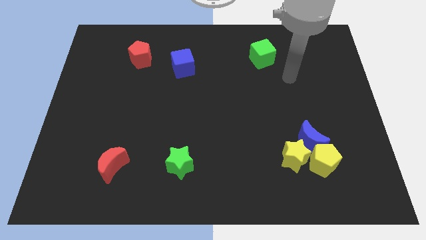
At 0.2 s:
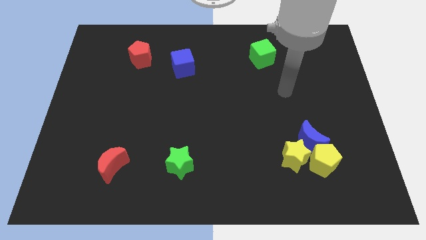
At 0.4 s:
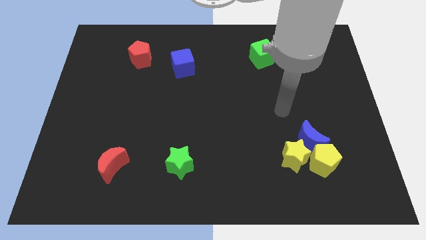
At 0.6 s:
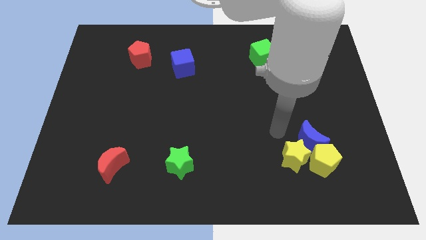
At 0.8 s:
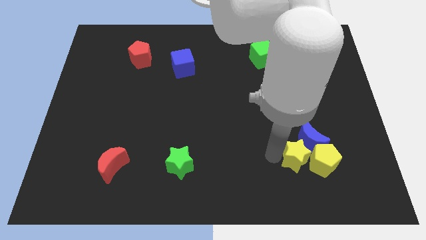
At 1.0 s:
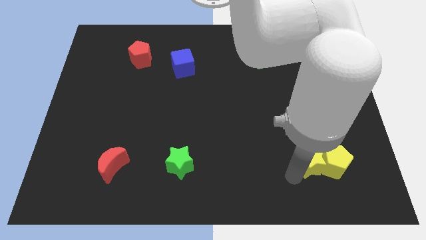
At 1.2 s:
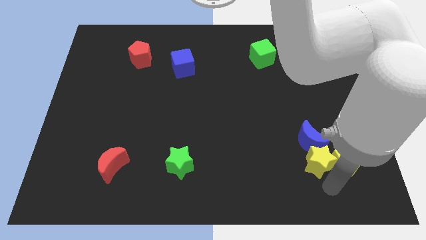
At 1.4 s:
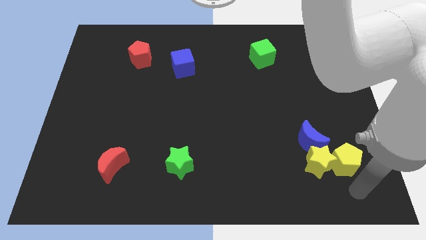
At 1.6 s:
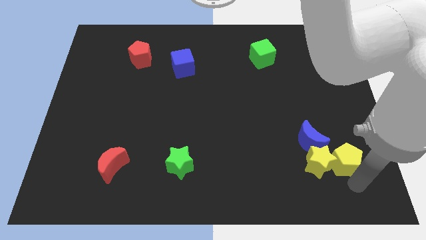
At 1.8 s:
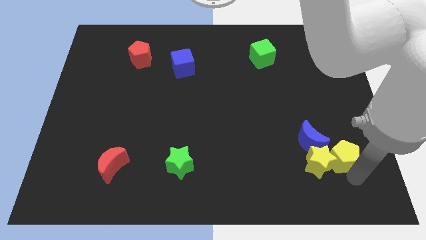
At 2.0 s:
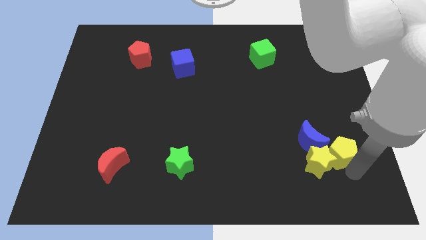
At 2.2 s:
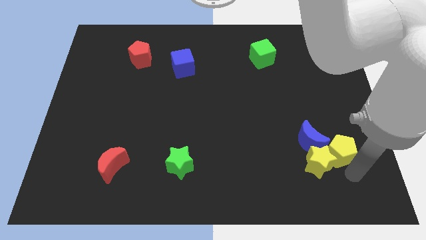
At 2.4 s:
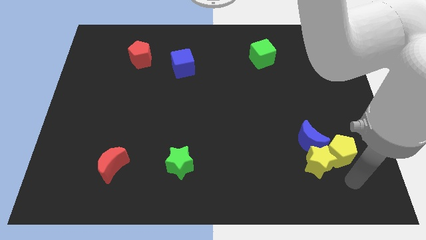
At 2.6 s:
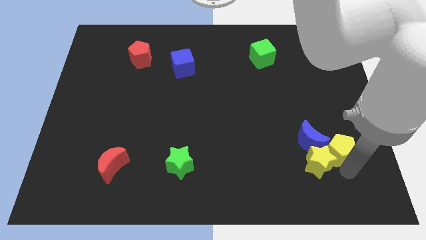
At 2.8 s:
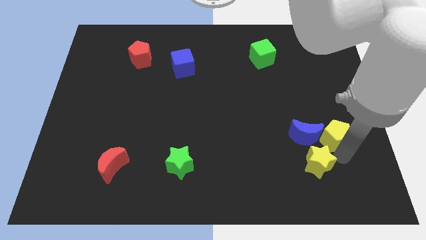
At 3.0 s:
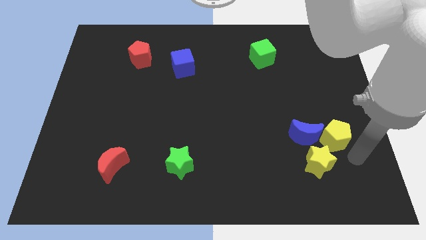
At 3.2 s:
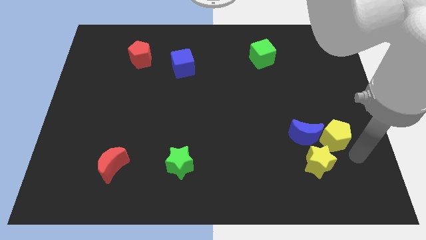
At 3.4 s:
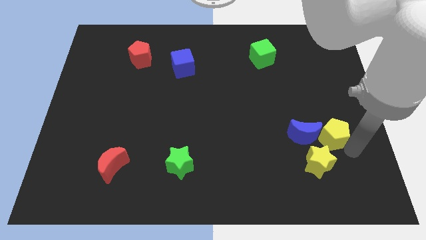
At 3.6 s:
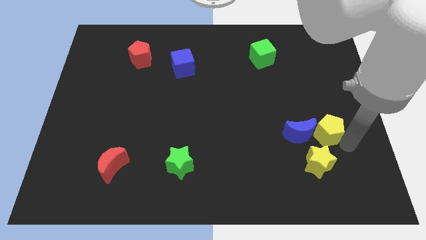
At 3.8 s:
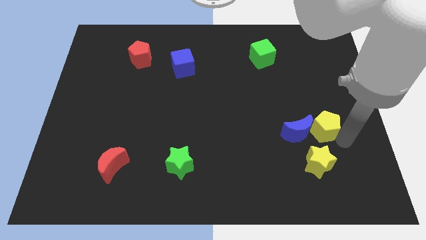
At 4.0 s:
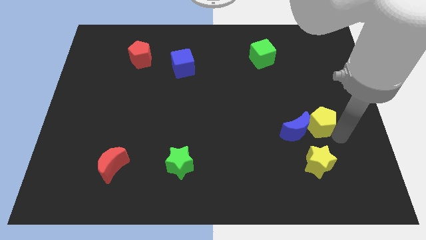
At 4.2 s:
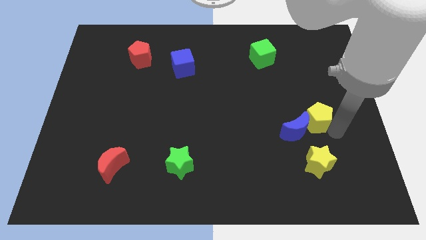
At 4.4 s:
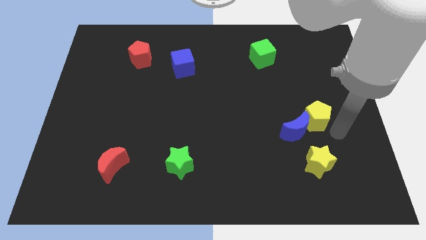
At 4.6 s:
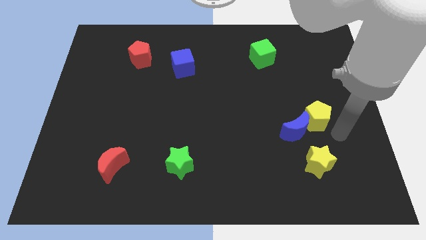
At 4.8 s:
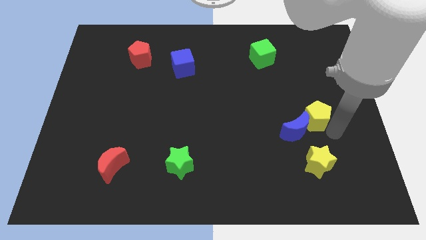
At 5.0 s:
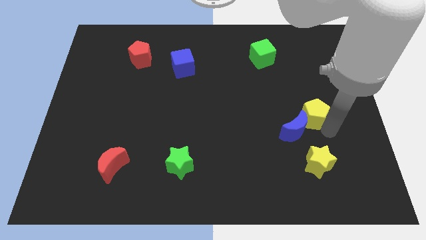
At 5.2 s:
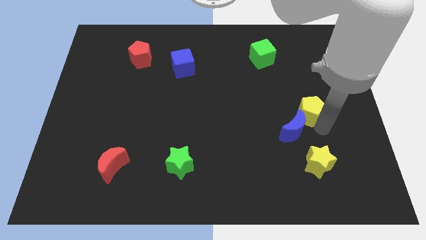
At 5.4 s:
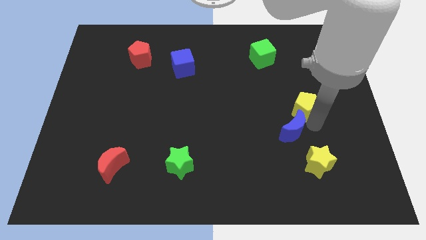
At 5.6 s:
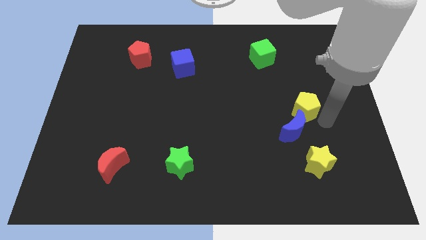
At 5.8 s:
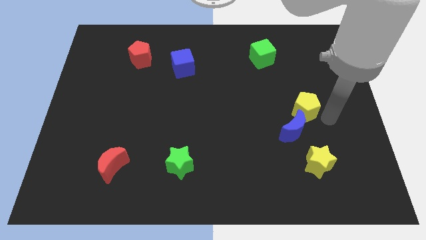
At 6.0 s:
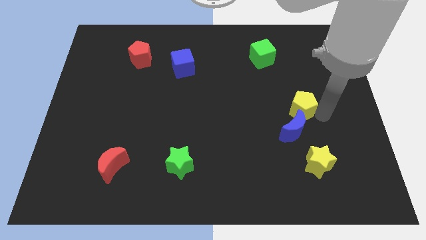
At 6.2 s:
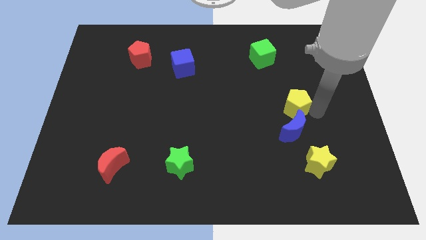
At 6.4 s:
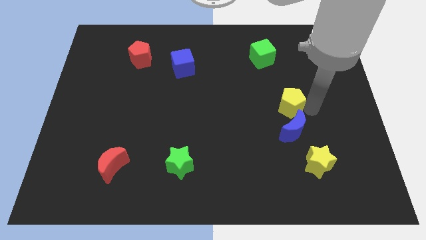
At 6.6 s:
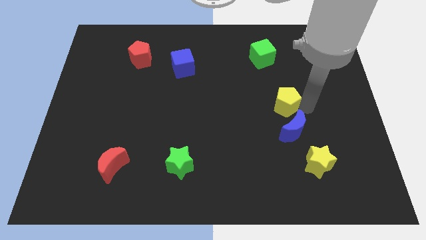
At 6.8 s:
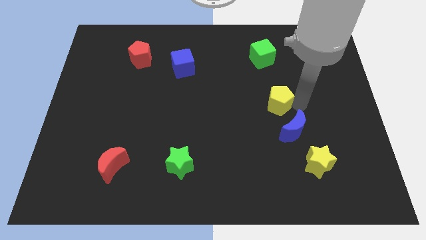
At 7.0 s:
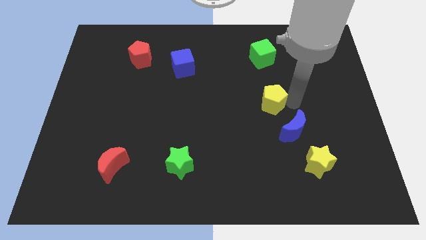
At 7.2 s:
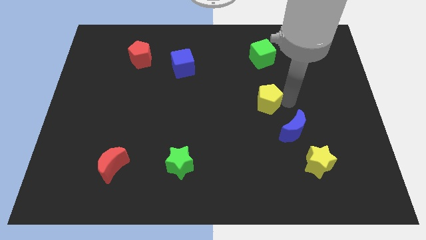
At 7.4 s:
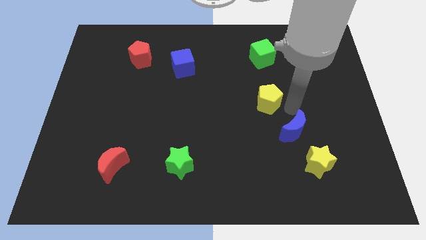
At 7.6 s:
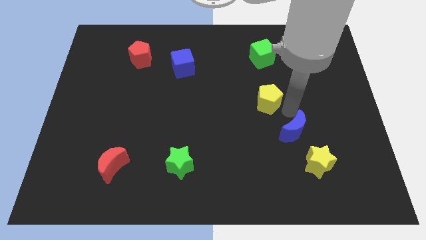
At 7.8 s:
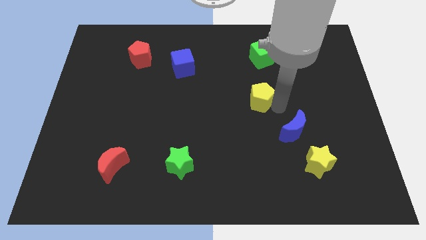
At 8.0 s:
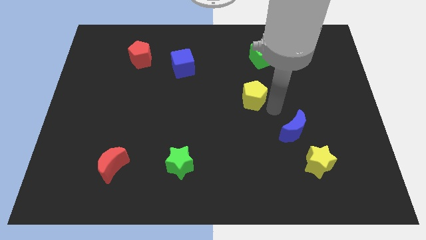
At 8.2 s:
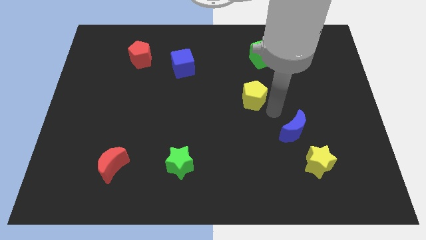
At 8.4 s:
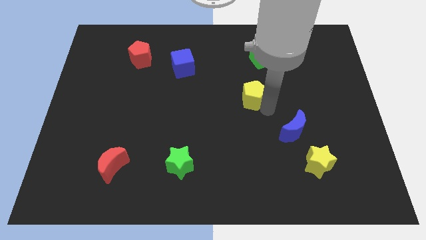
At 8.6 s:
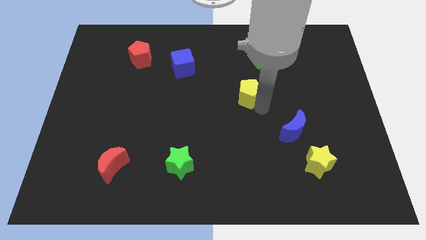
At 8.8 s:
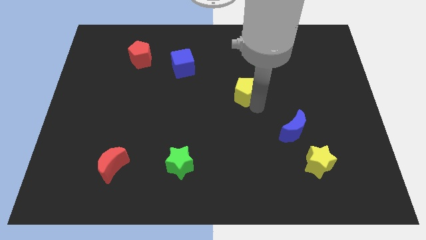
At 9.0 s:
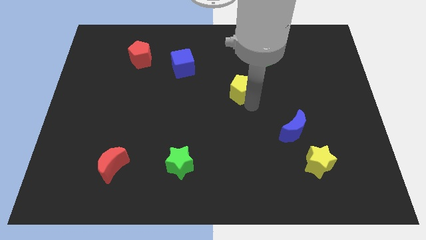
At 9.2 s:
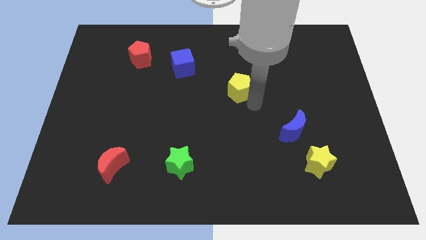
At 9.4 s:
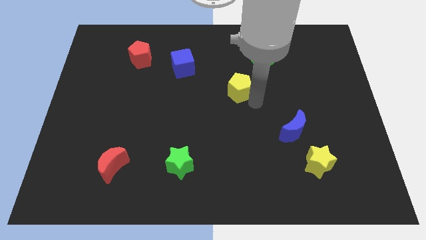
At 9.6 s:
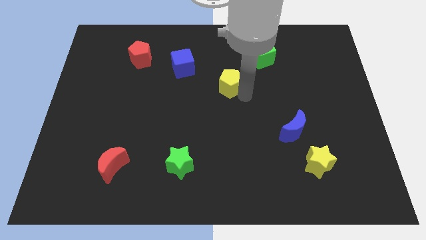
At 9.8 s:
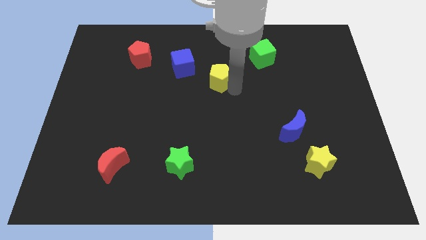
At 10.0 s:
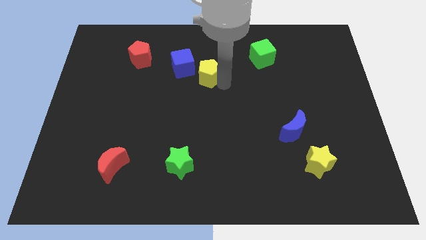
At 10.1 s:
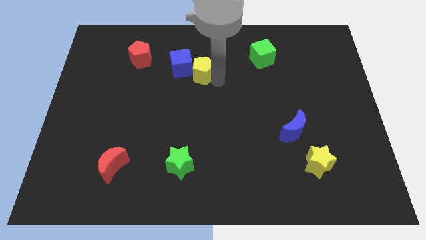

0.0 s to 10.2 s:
slide the yellow pentagon next to the blue cube

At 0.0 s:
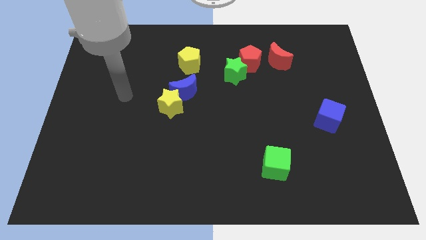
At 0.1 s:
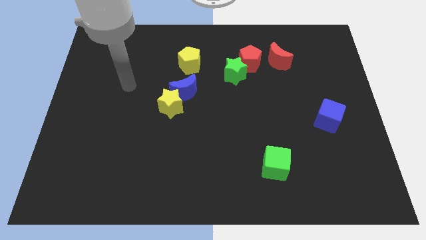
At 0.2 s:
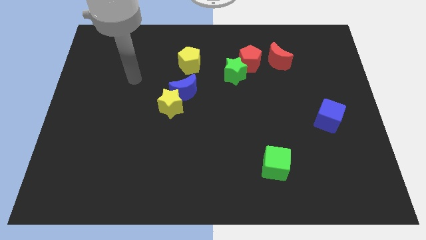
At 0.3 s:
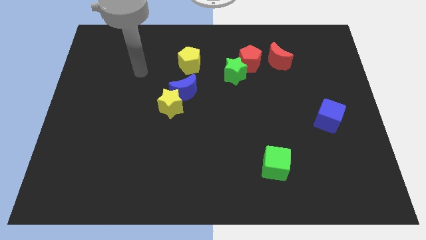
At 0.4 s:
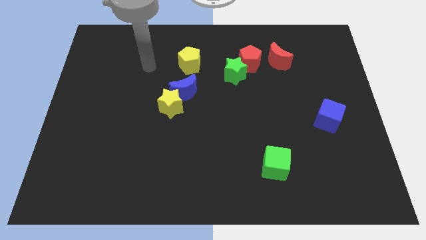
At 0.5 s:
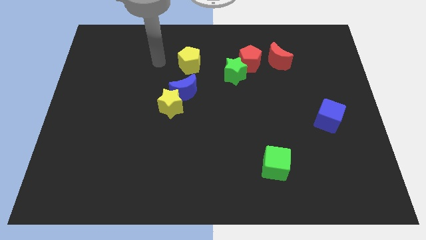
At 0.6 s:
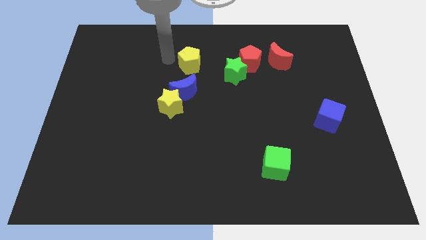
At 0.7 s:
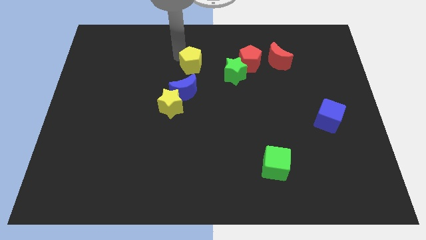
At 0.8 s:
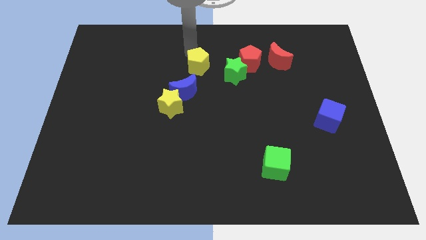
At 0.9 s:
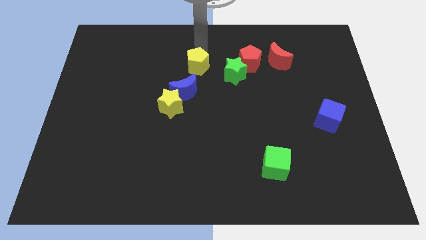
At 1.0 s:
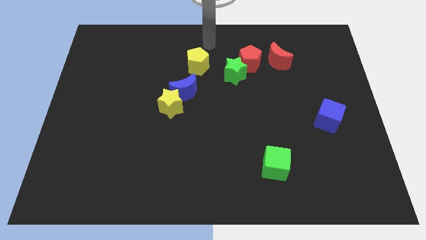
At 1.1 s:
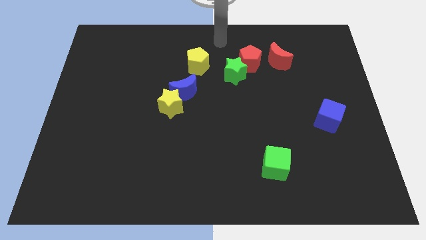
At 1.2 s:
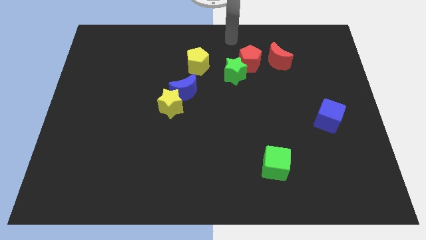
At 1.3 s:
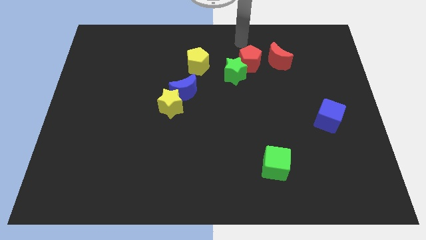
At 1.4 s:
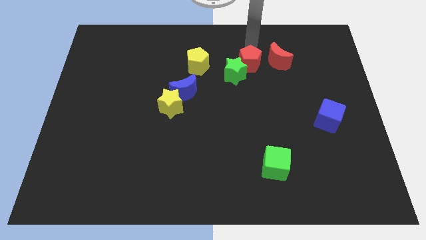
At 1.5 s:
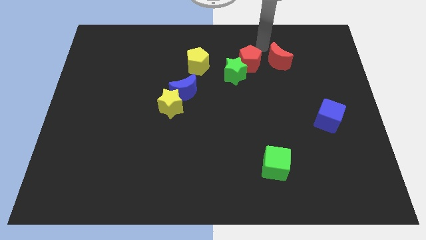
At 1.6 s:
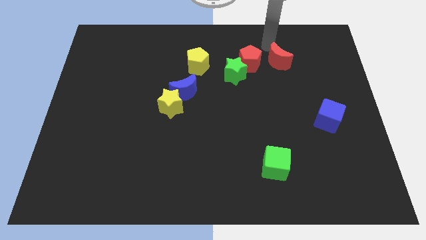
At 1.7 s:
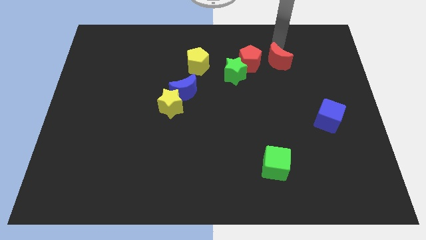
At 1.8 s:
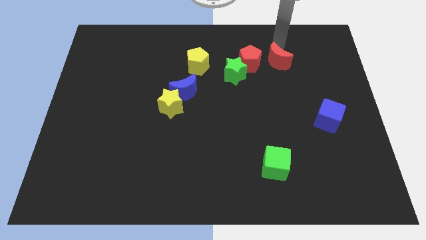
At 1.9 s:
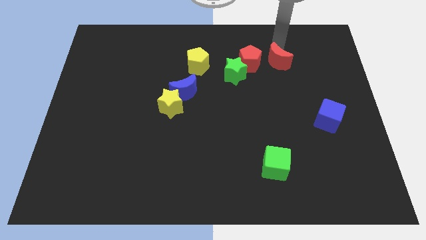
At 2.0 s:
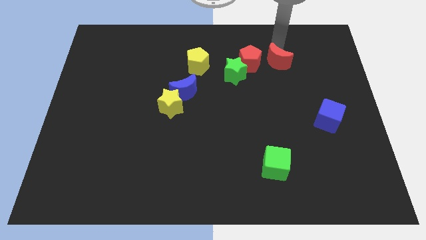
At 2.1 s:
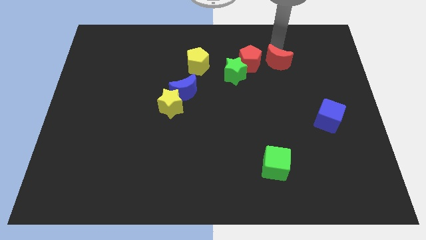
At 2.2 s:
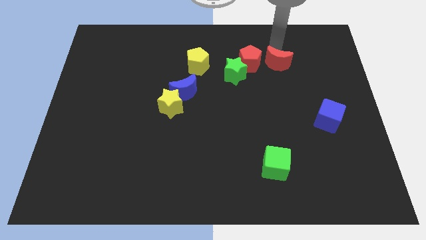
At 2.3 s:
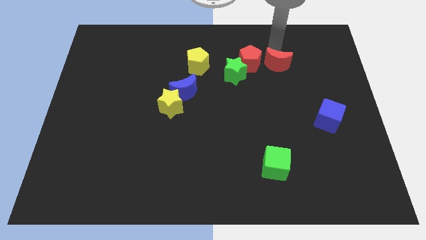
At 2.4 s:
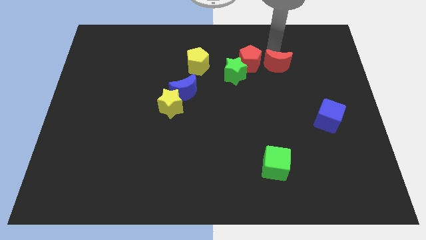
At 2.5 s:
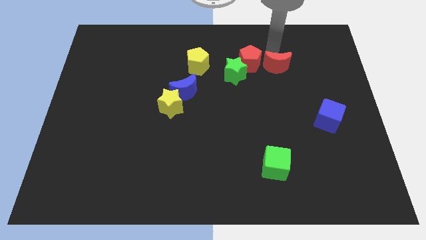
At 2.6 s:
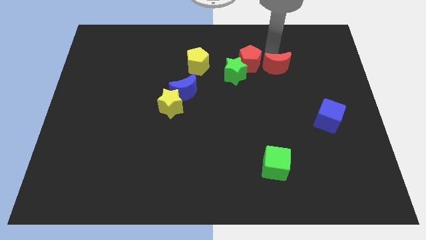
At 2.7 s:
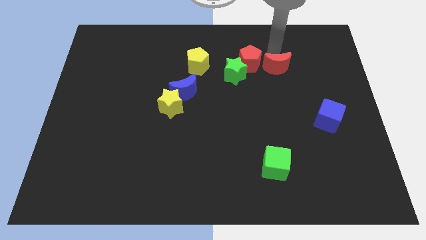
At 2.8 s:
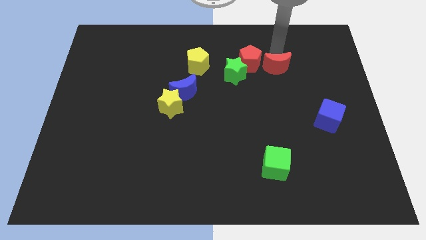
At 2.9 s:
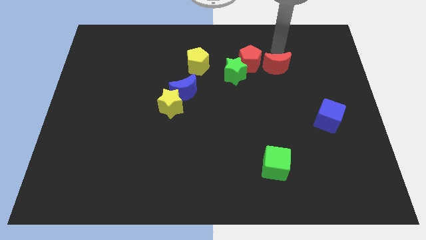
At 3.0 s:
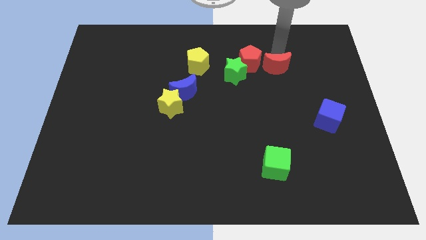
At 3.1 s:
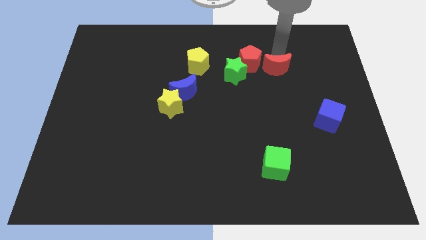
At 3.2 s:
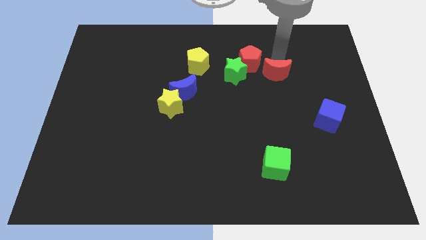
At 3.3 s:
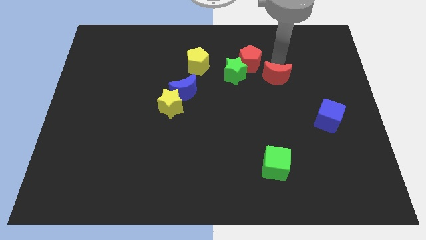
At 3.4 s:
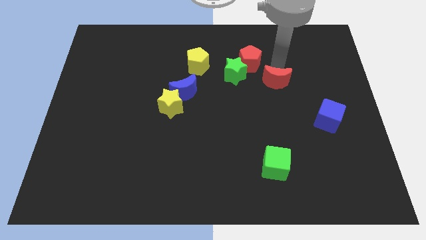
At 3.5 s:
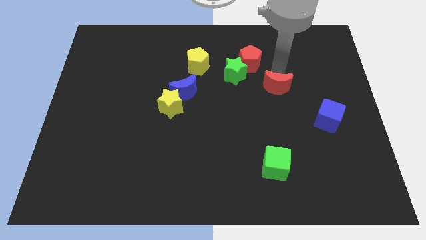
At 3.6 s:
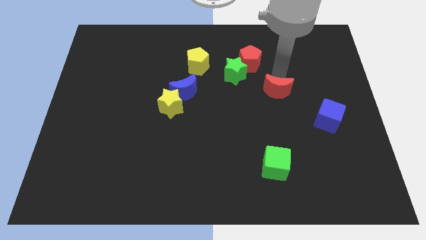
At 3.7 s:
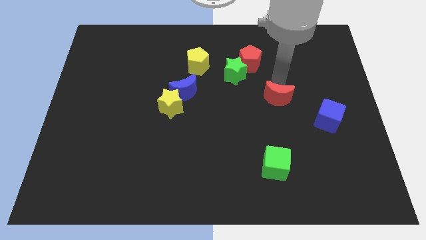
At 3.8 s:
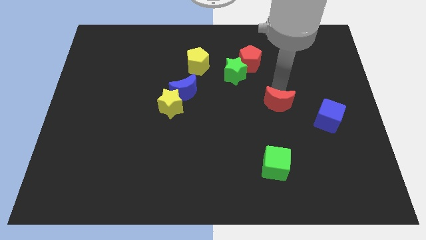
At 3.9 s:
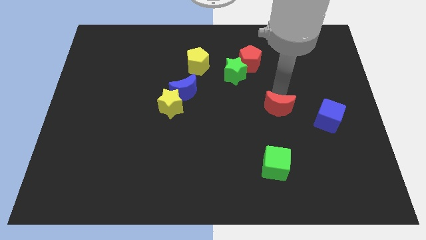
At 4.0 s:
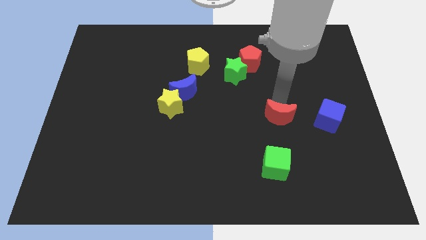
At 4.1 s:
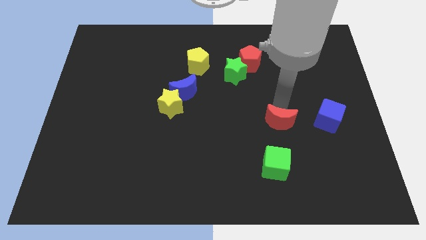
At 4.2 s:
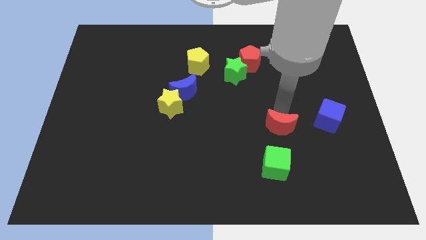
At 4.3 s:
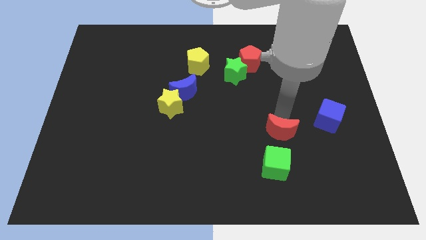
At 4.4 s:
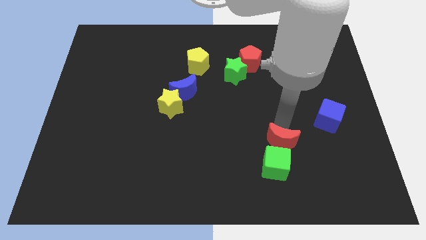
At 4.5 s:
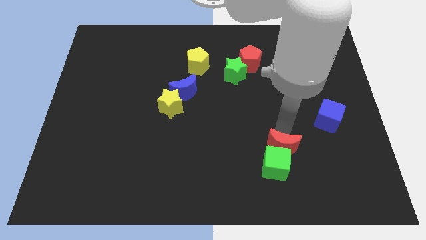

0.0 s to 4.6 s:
slide the red moon next to the green cube
